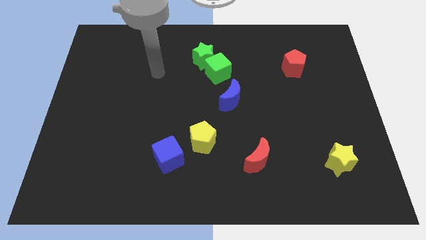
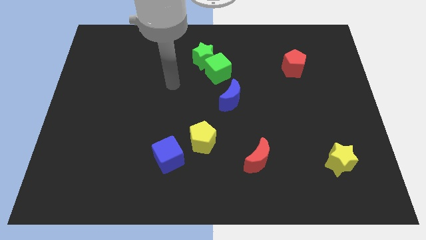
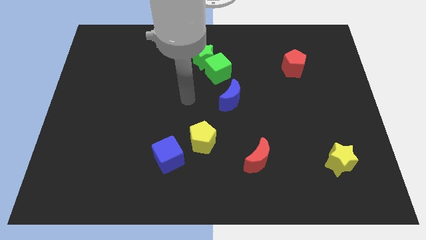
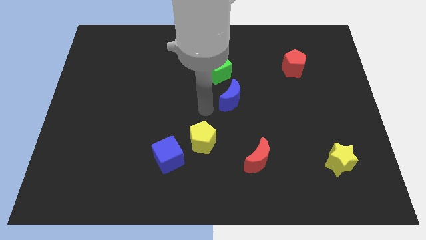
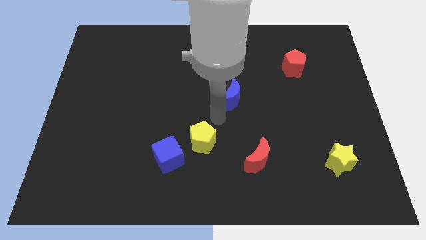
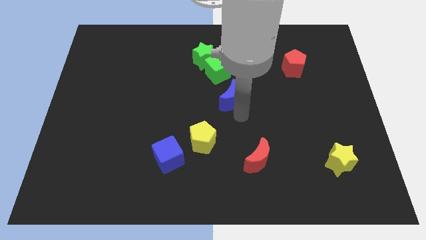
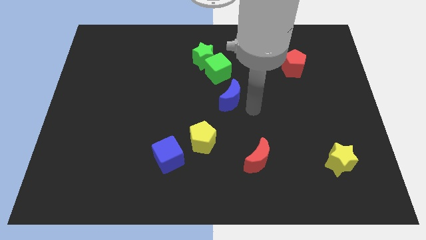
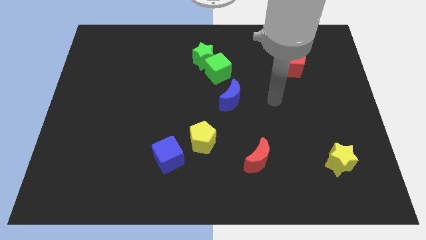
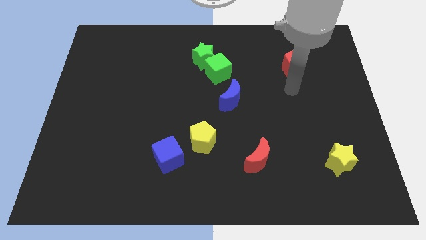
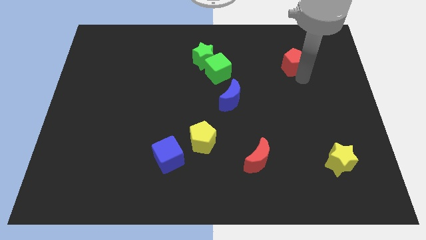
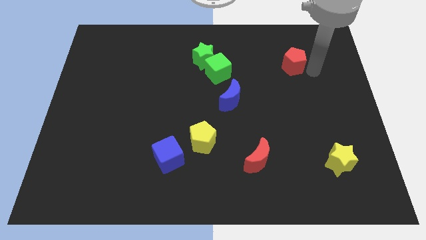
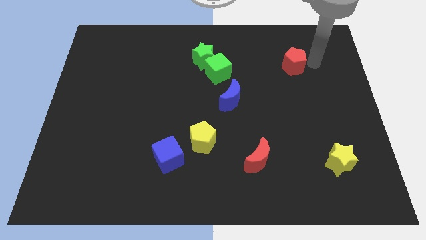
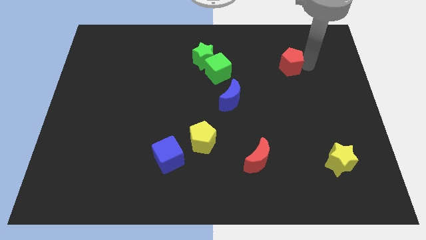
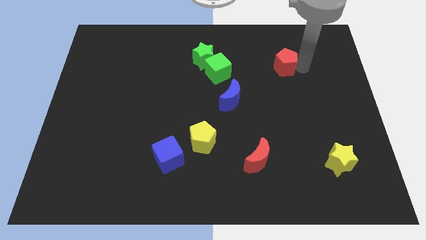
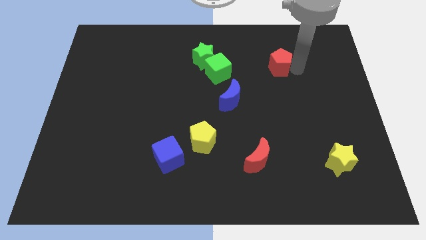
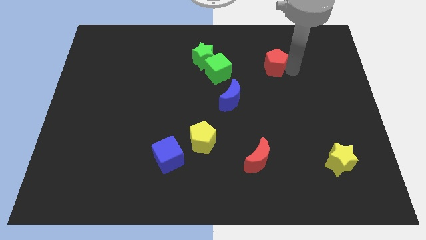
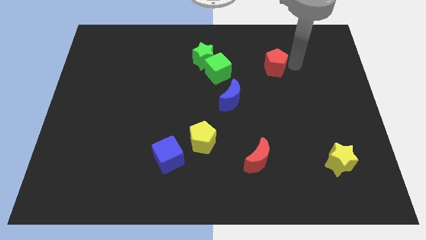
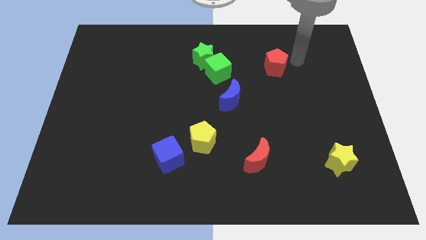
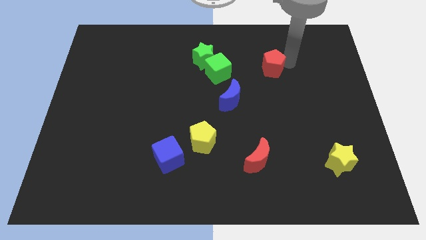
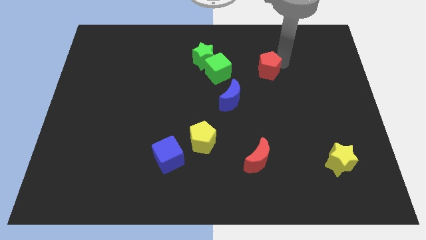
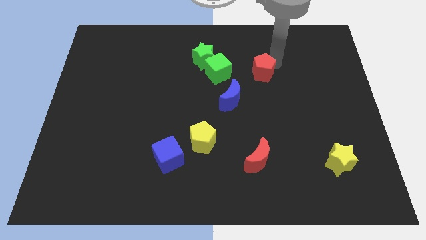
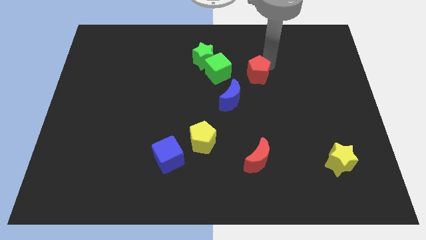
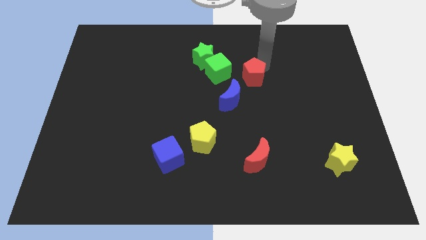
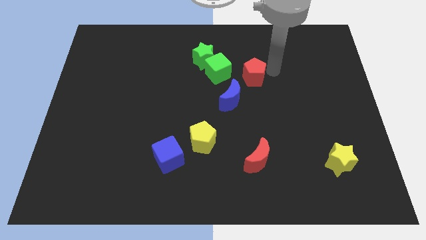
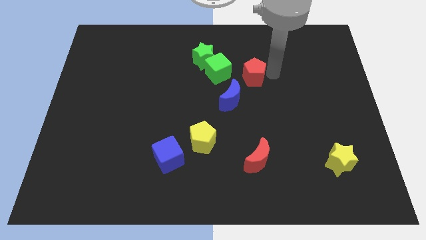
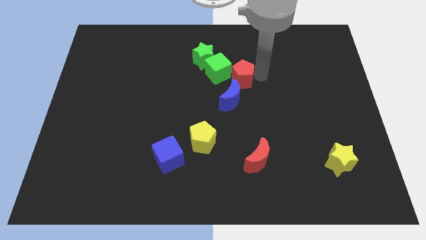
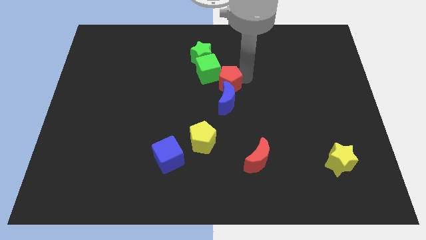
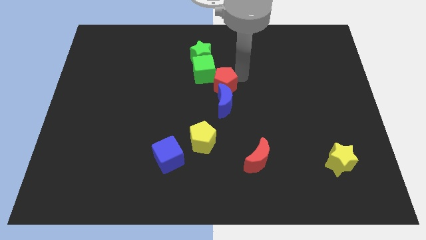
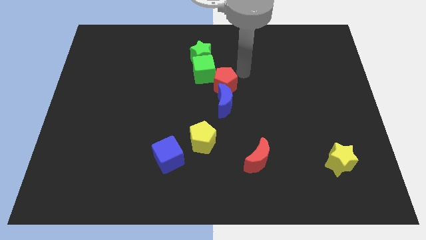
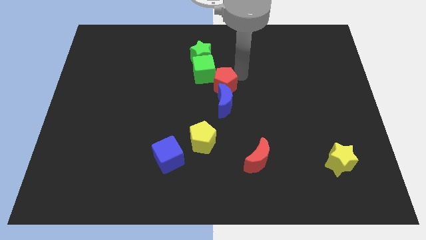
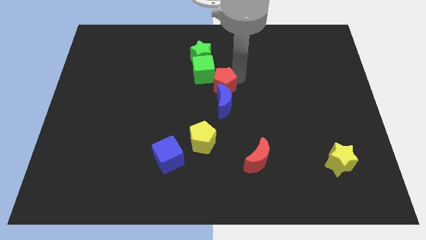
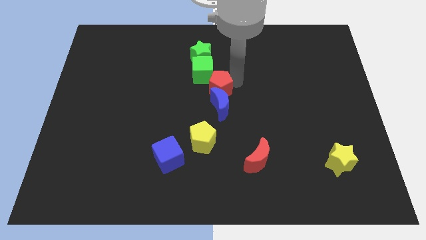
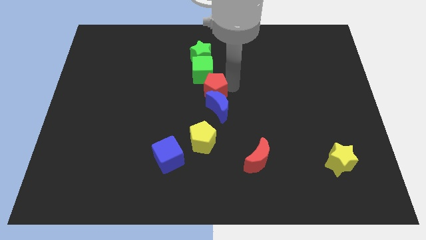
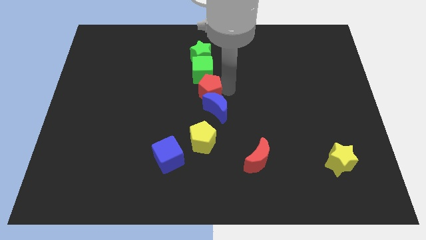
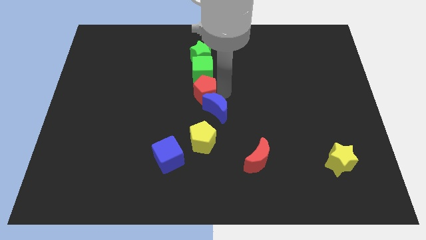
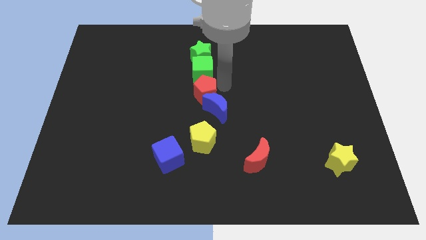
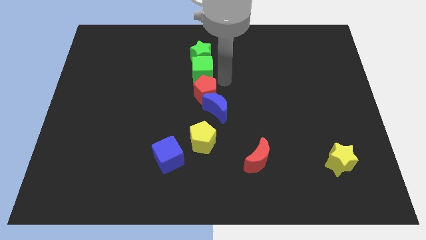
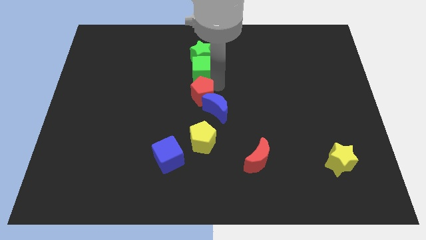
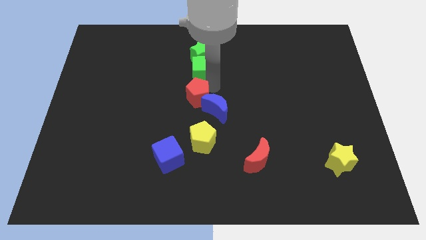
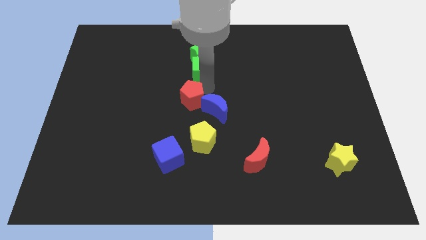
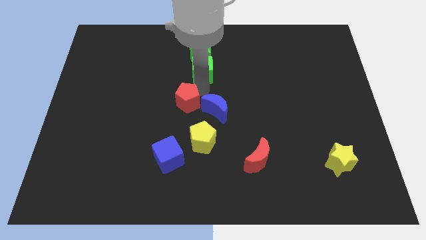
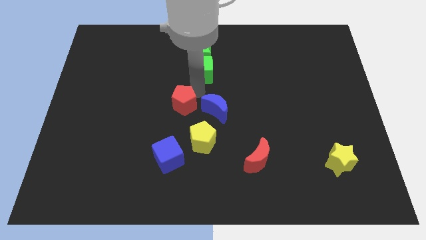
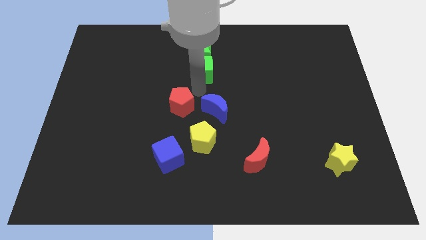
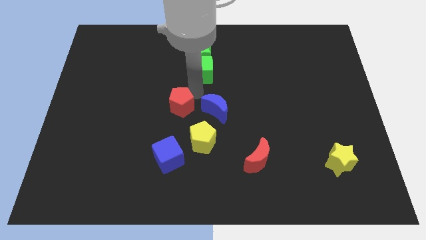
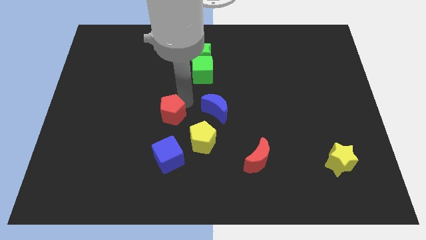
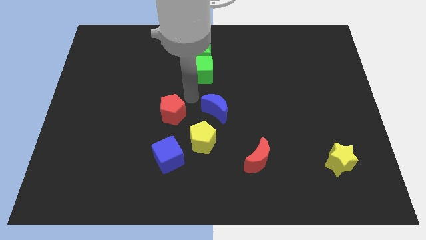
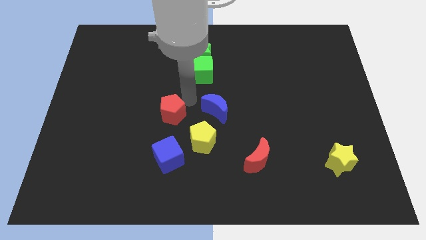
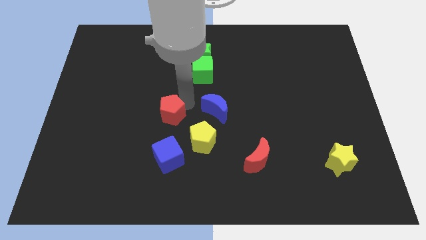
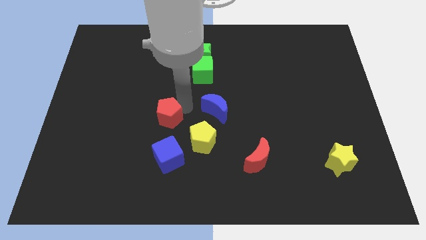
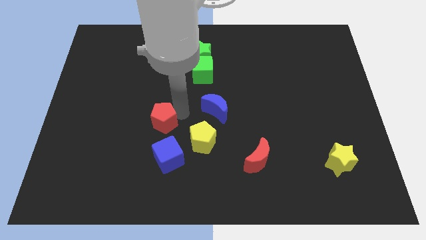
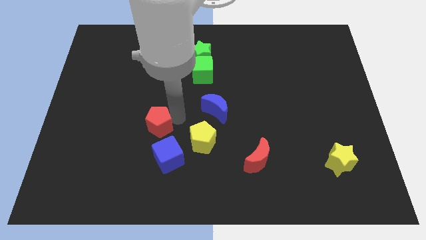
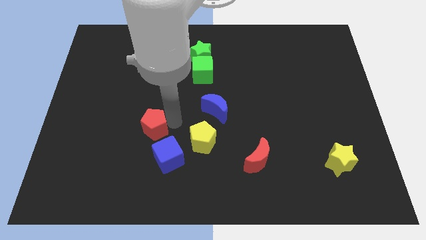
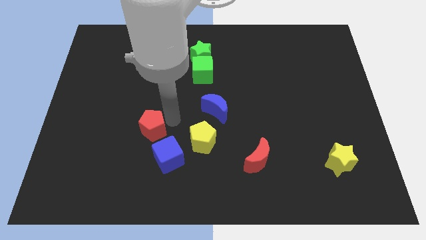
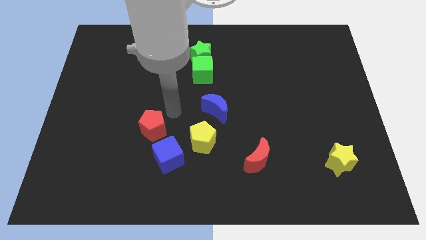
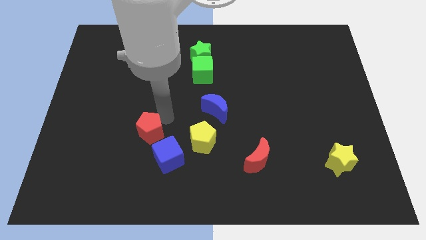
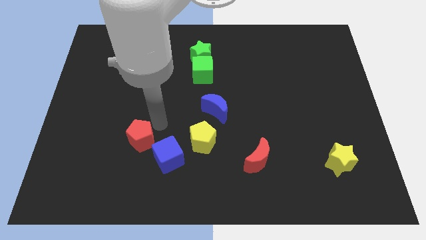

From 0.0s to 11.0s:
move the red pentagon left of the blue cube

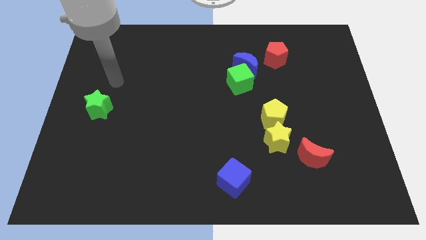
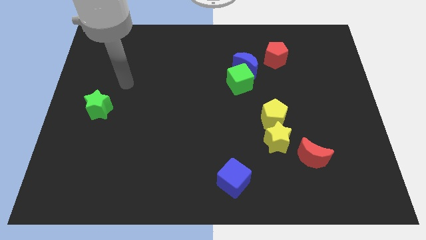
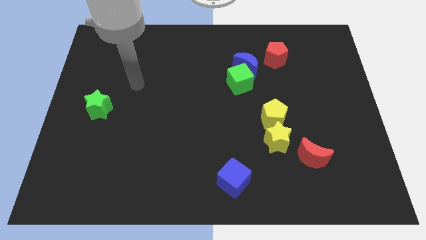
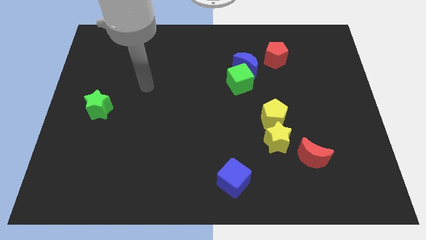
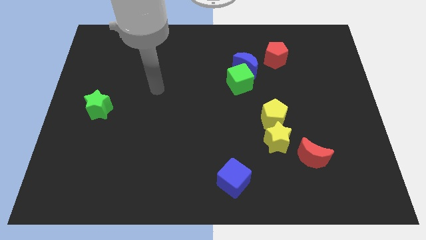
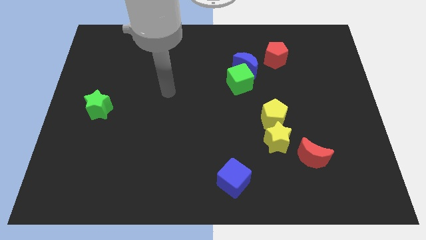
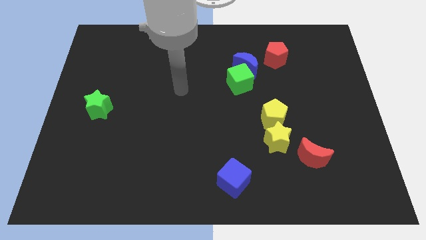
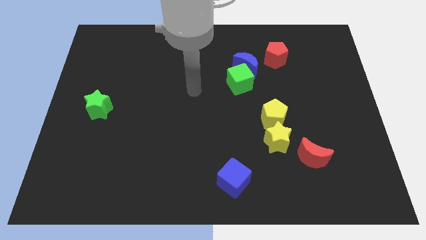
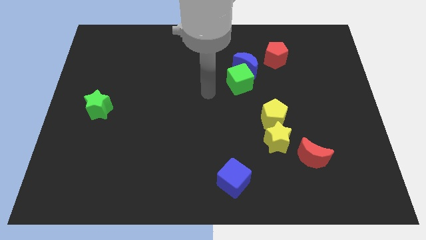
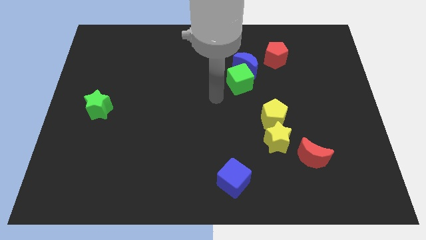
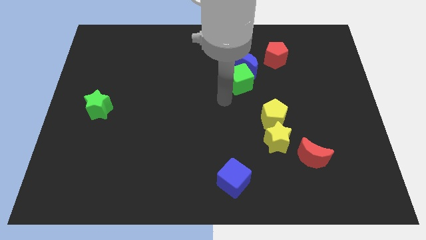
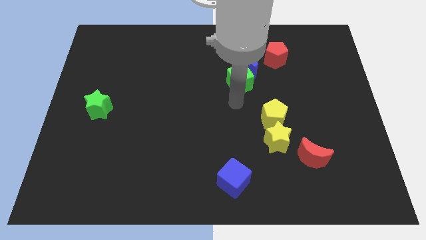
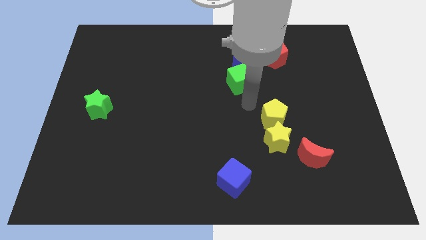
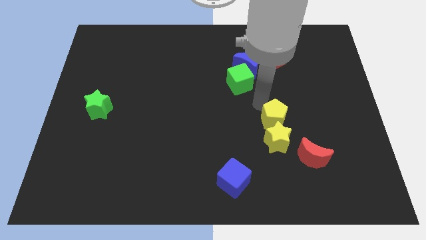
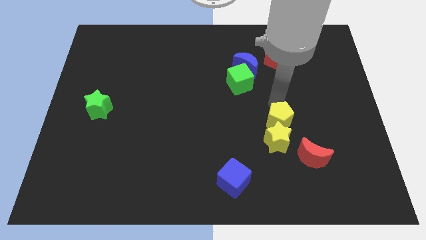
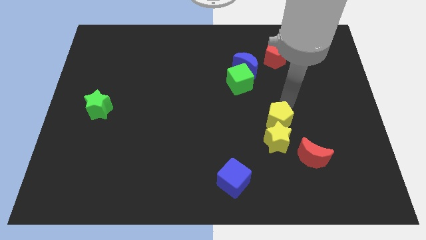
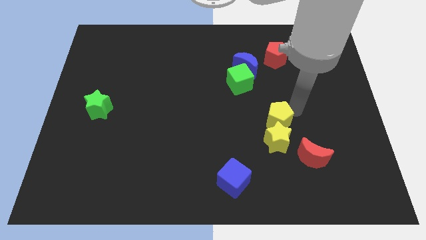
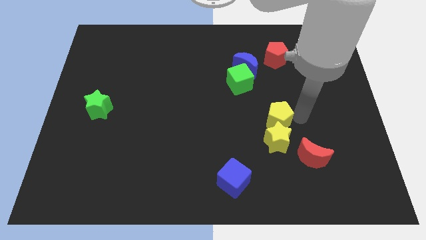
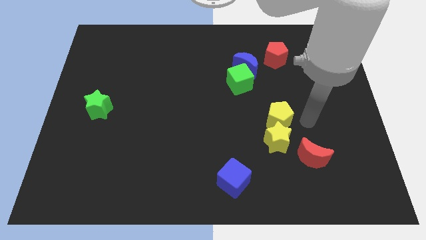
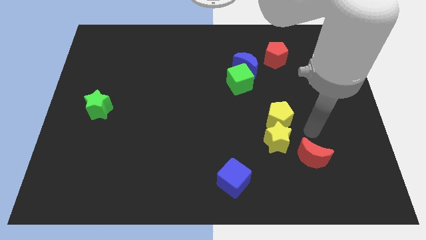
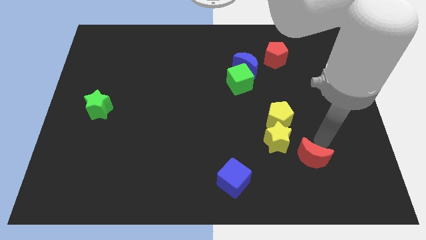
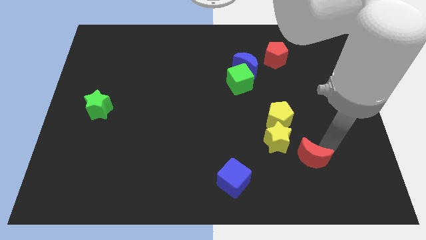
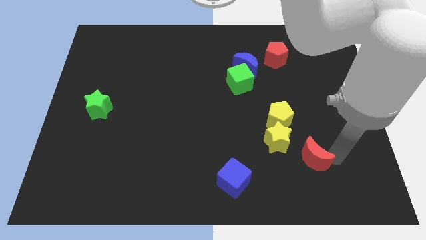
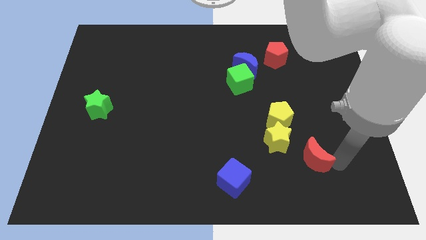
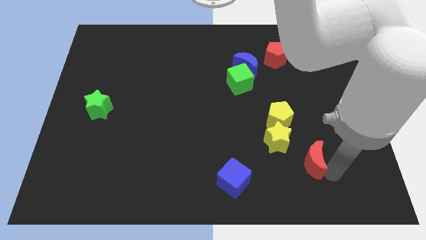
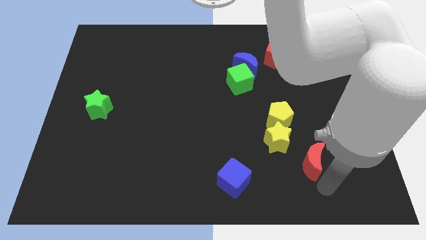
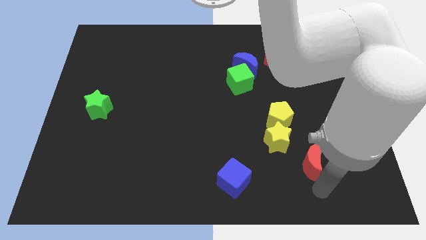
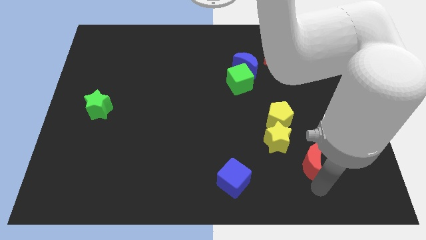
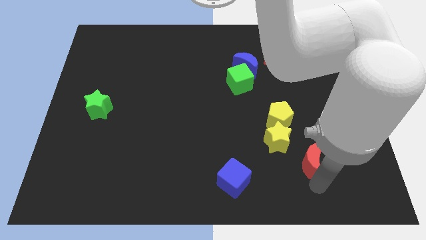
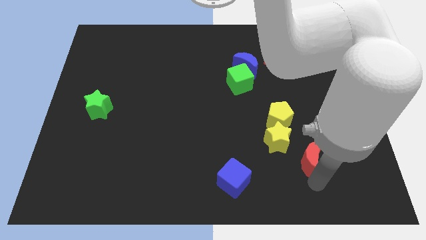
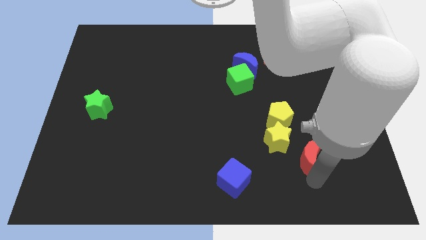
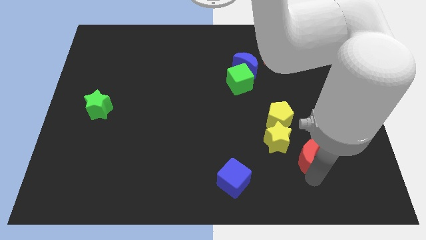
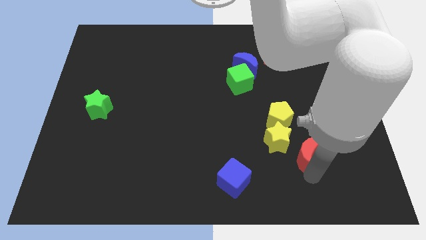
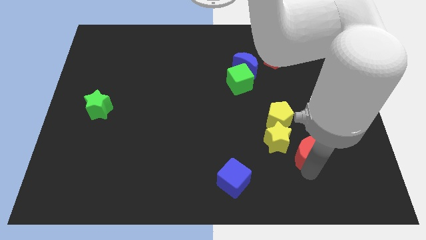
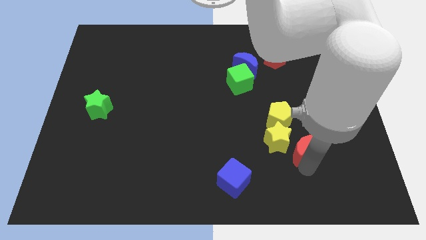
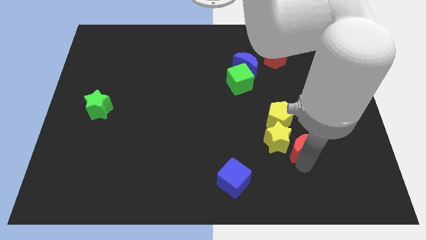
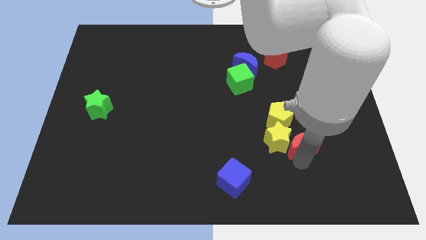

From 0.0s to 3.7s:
move the red moon to the top right of the yellow star
